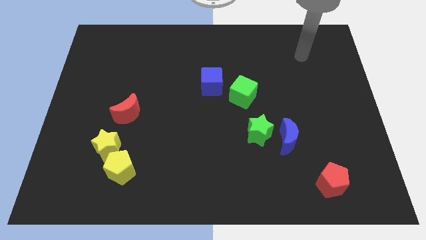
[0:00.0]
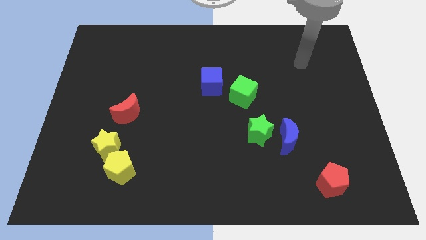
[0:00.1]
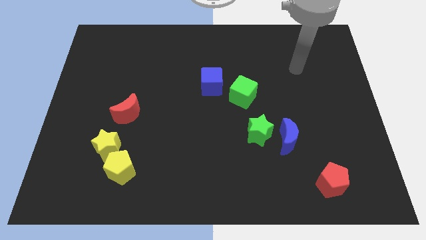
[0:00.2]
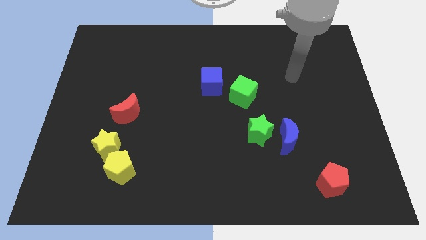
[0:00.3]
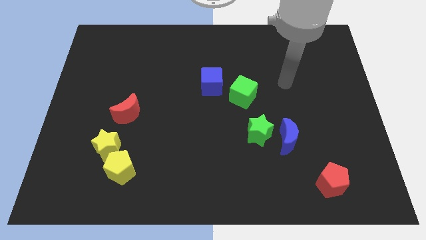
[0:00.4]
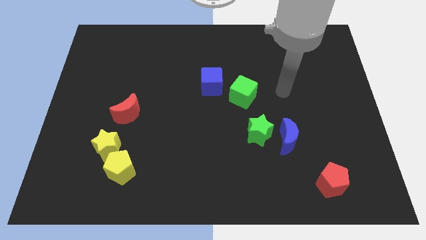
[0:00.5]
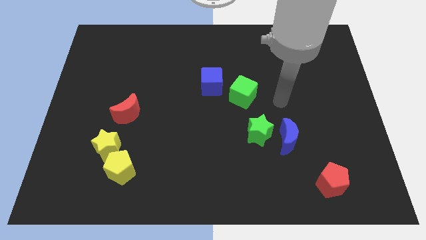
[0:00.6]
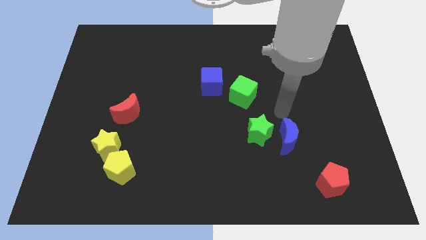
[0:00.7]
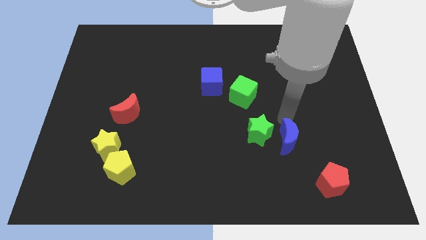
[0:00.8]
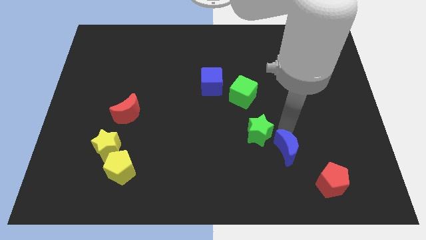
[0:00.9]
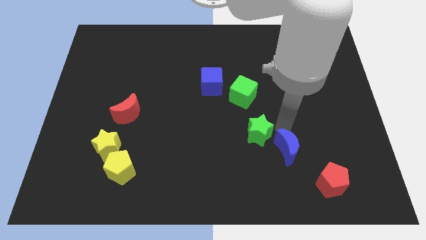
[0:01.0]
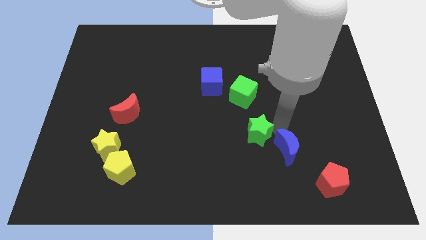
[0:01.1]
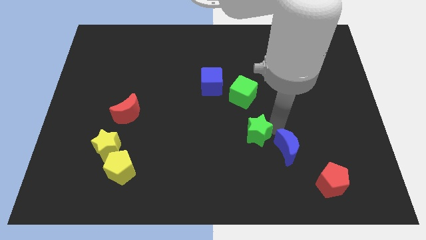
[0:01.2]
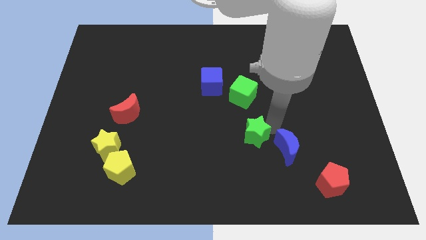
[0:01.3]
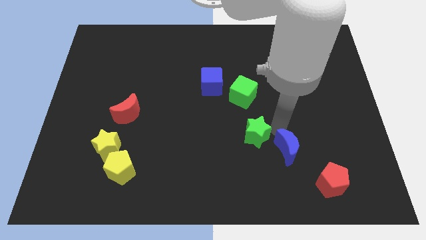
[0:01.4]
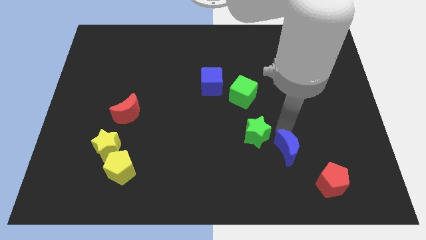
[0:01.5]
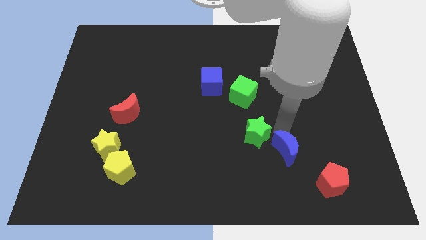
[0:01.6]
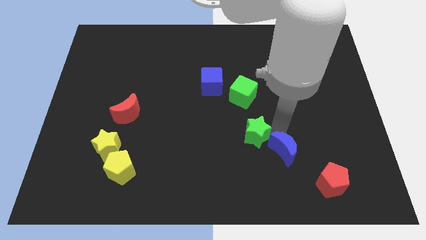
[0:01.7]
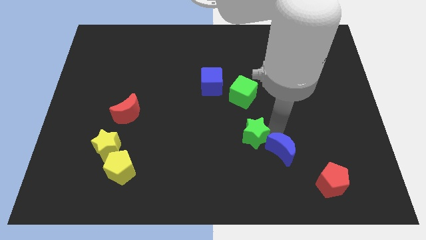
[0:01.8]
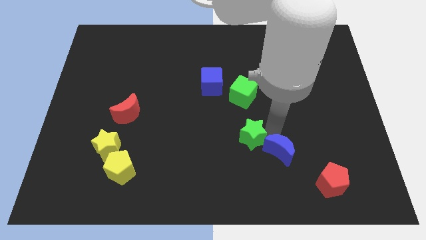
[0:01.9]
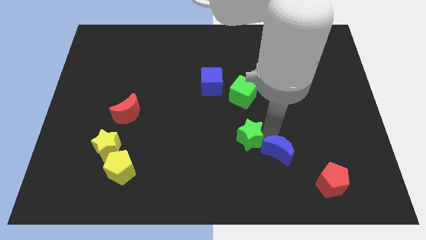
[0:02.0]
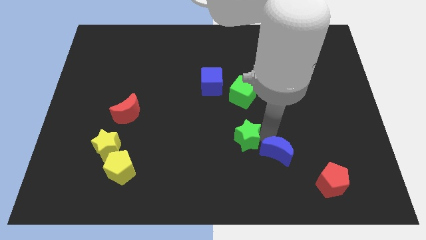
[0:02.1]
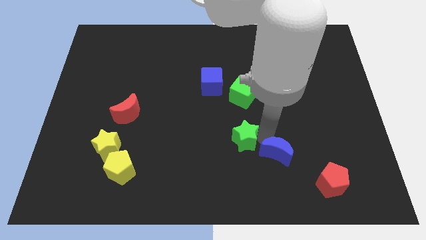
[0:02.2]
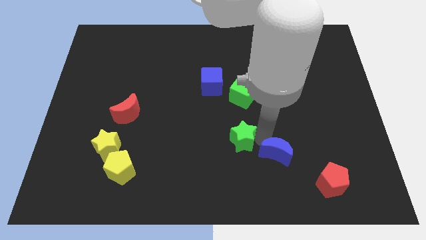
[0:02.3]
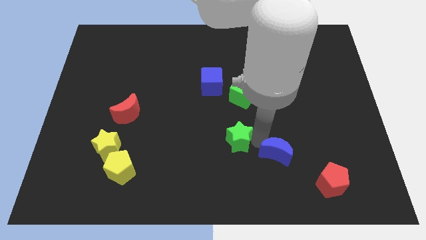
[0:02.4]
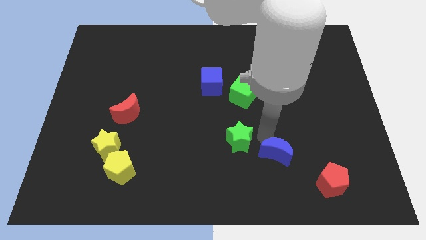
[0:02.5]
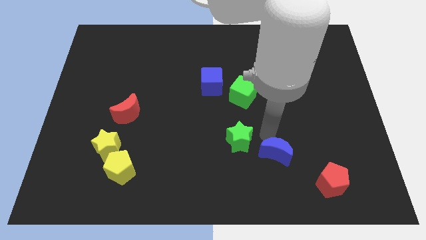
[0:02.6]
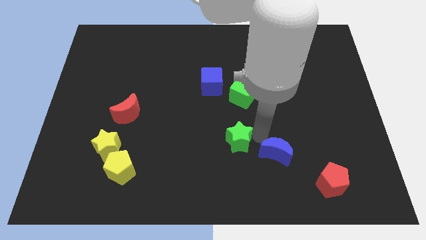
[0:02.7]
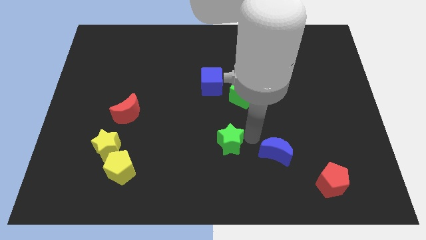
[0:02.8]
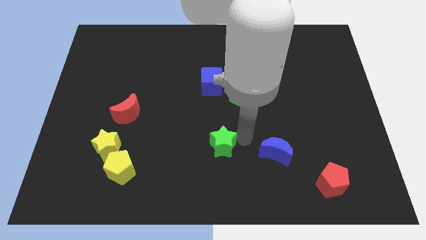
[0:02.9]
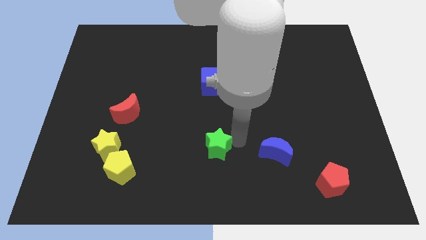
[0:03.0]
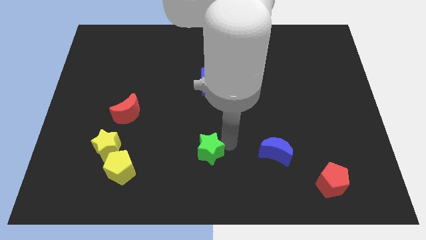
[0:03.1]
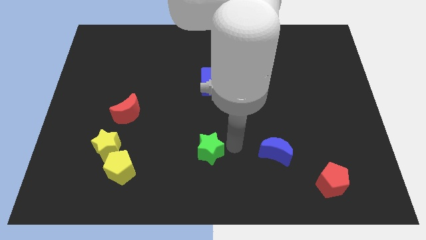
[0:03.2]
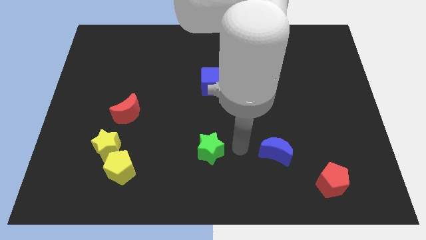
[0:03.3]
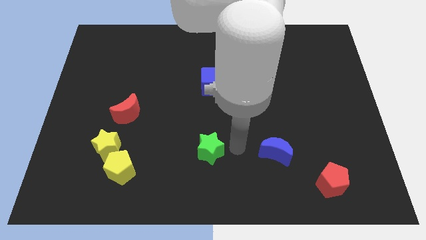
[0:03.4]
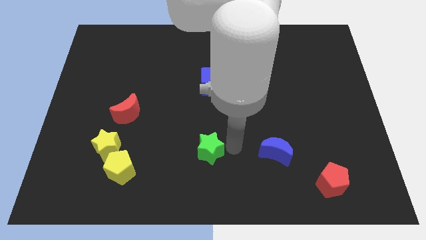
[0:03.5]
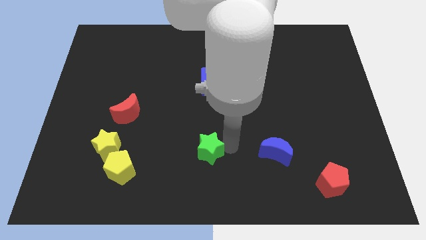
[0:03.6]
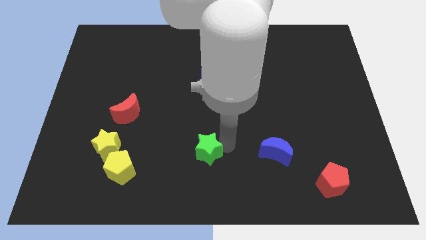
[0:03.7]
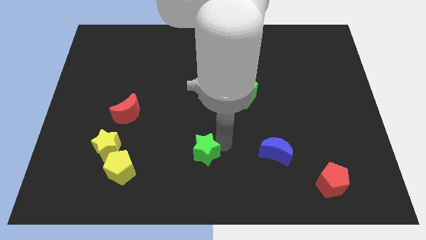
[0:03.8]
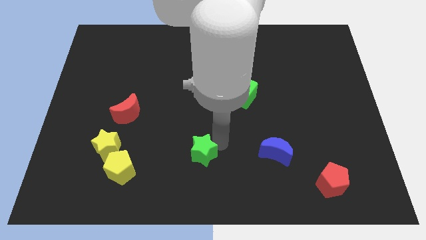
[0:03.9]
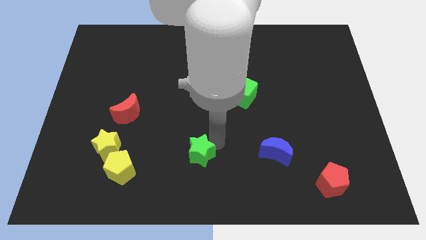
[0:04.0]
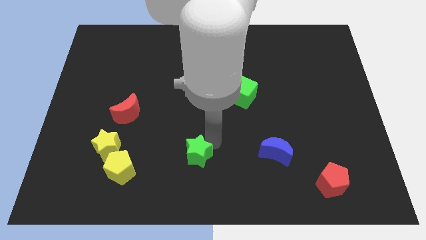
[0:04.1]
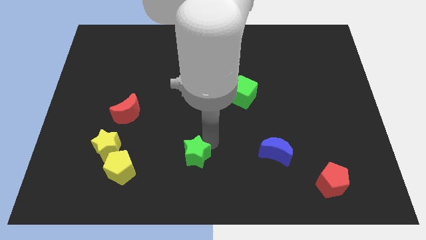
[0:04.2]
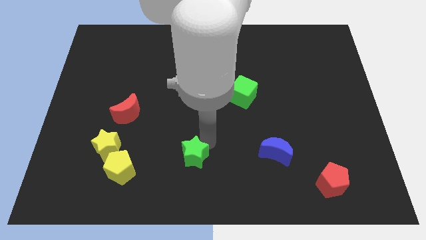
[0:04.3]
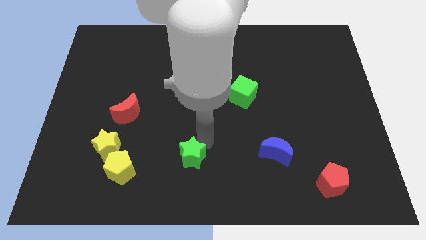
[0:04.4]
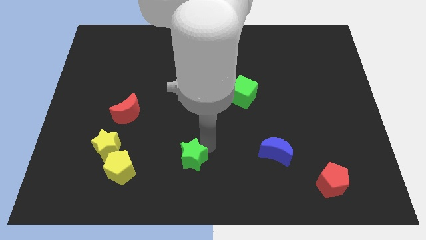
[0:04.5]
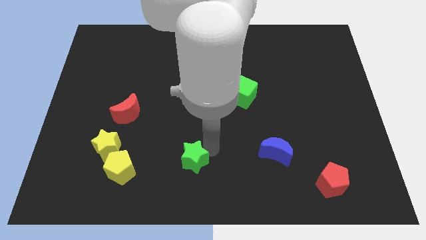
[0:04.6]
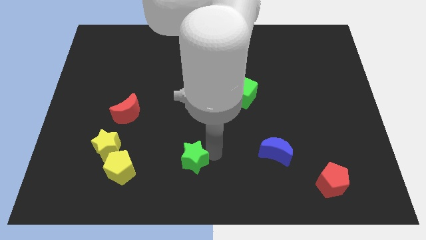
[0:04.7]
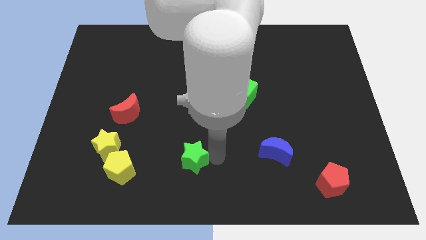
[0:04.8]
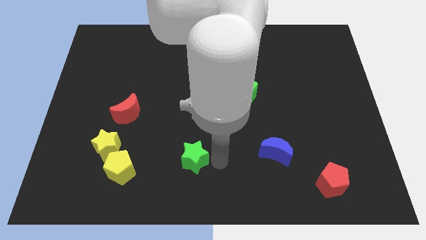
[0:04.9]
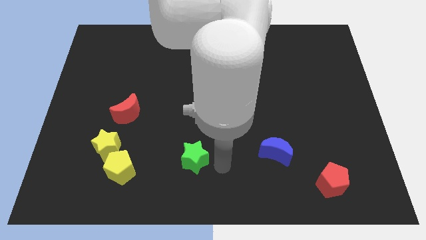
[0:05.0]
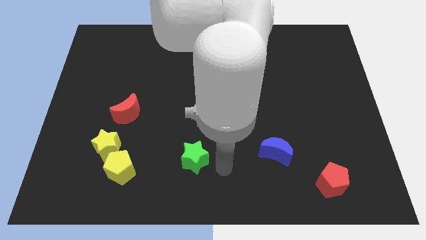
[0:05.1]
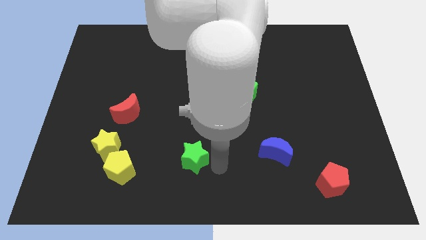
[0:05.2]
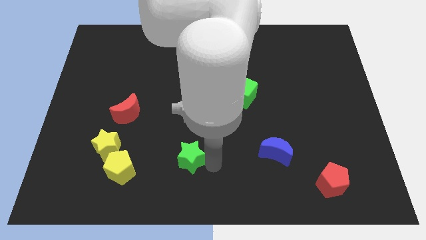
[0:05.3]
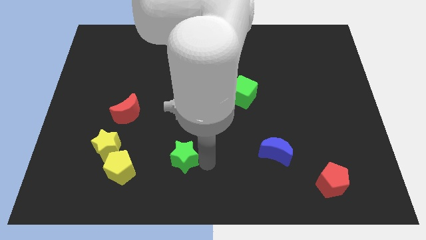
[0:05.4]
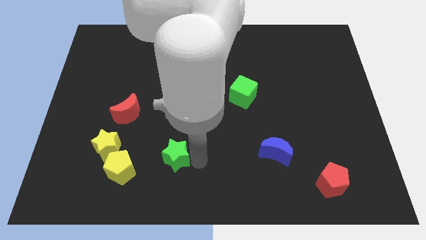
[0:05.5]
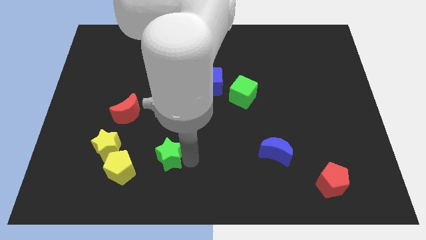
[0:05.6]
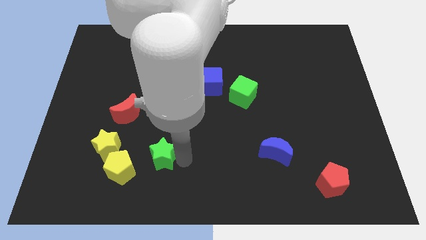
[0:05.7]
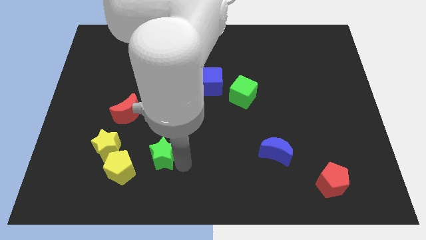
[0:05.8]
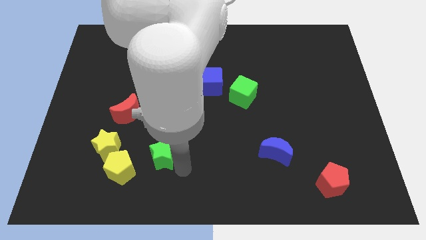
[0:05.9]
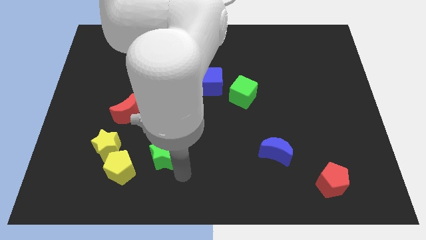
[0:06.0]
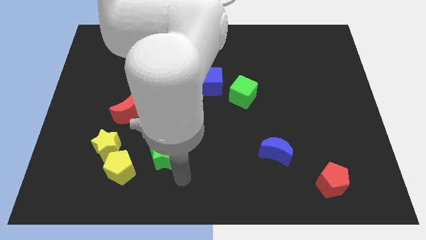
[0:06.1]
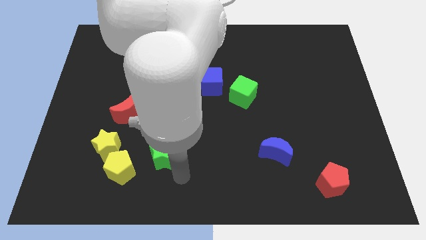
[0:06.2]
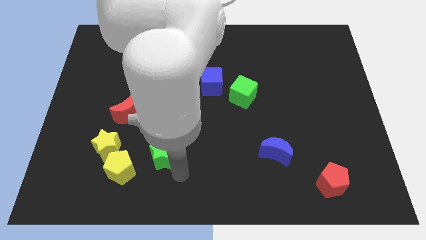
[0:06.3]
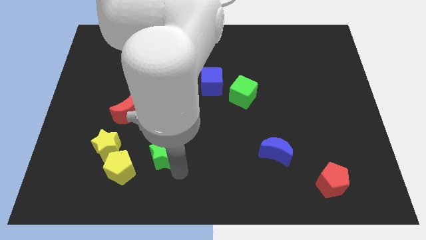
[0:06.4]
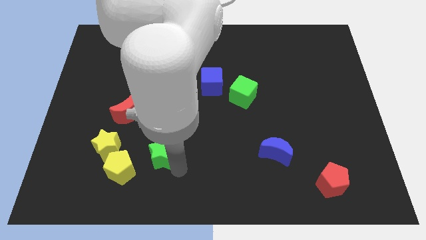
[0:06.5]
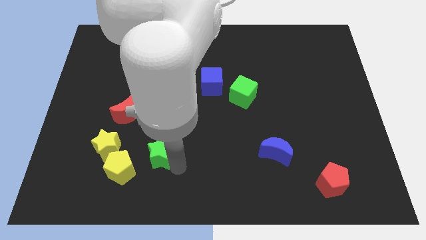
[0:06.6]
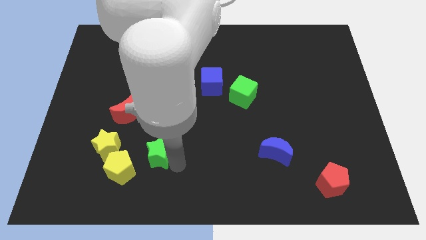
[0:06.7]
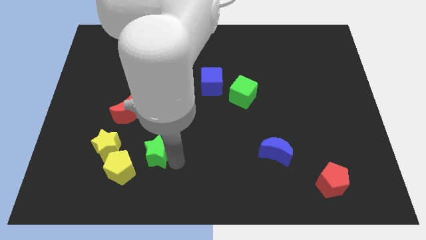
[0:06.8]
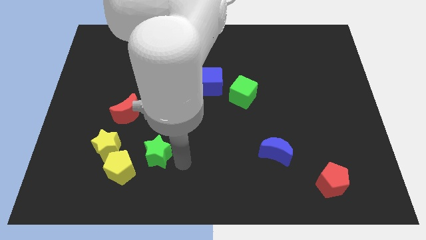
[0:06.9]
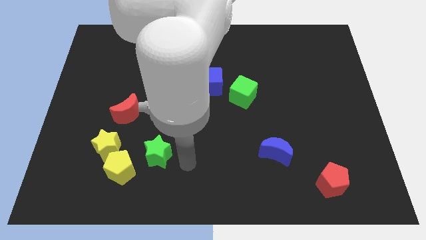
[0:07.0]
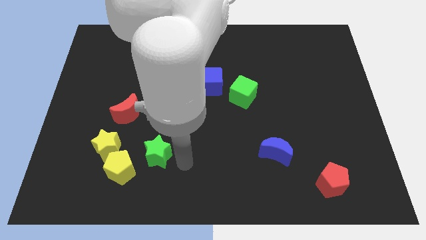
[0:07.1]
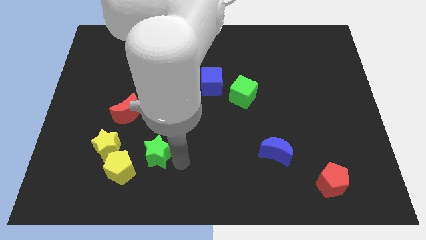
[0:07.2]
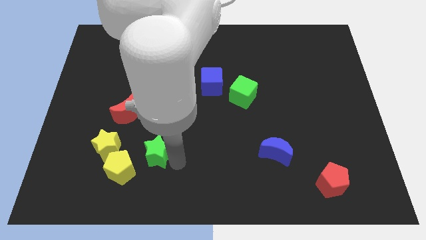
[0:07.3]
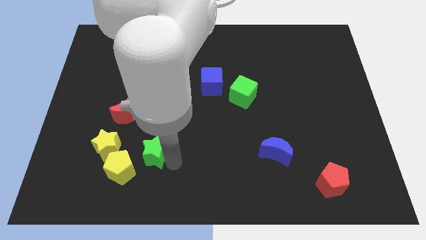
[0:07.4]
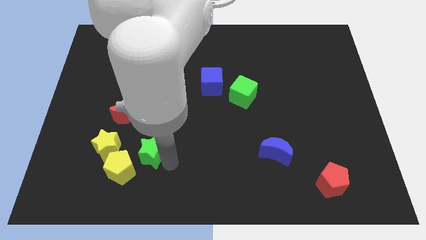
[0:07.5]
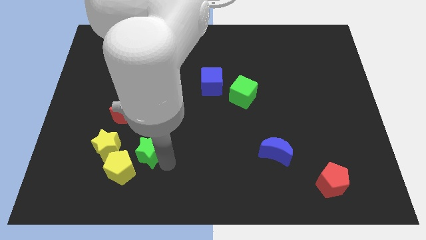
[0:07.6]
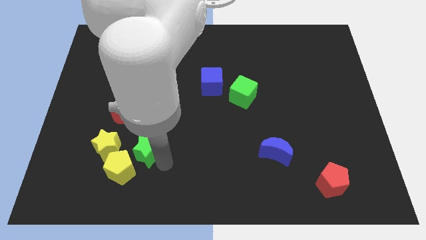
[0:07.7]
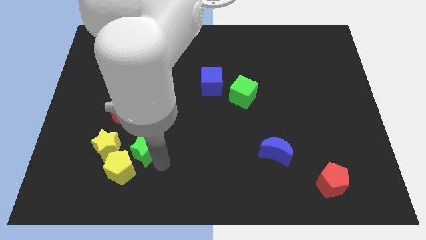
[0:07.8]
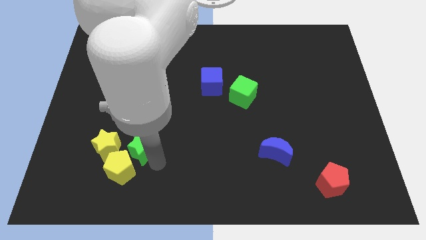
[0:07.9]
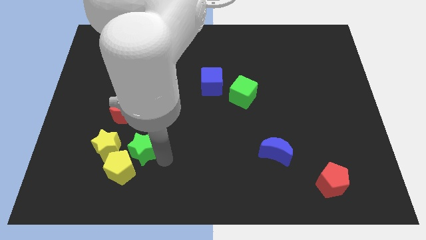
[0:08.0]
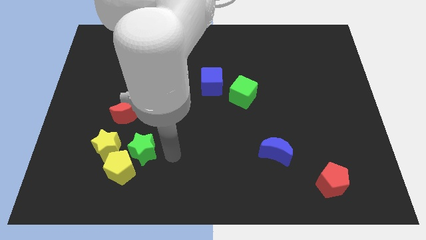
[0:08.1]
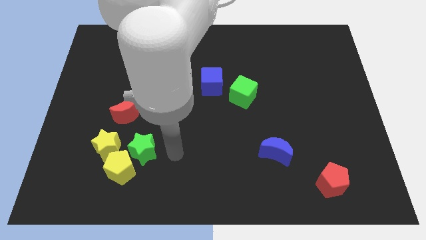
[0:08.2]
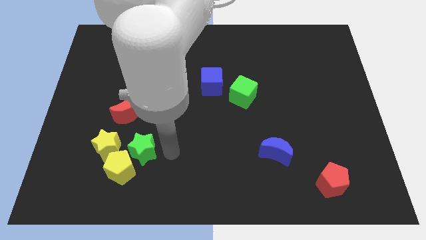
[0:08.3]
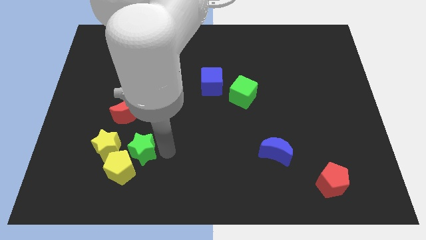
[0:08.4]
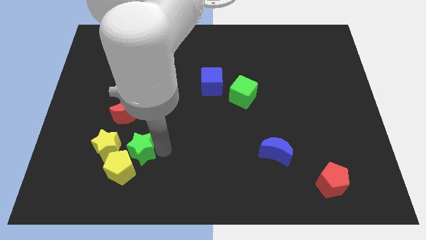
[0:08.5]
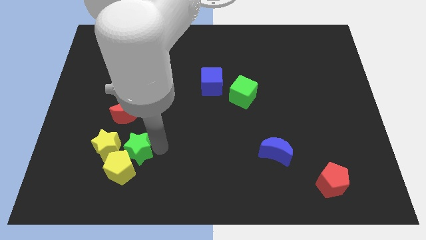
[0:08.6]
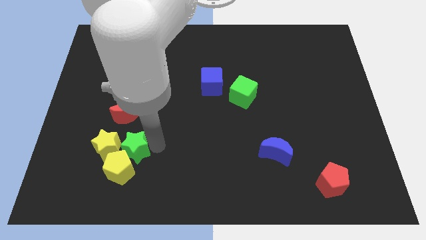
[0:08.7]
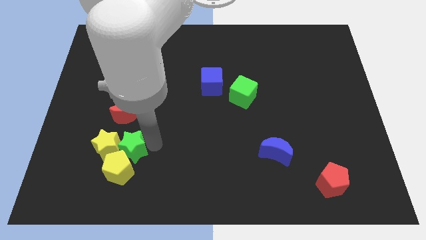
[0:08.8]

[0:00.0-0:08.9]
put the green star close to the yellow star
